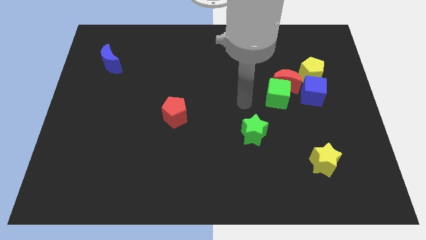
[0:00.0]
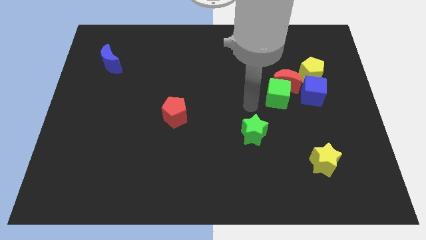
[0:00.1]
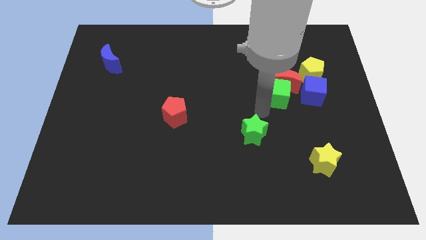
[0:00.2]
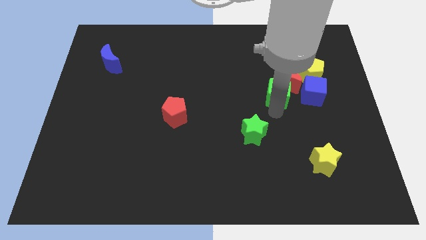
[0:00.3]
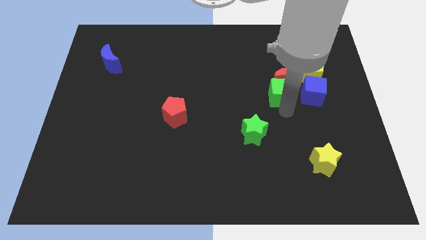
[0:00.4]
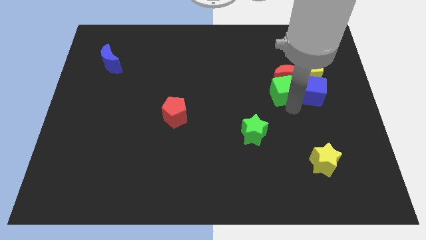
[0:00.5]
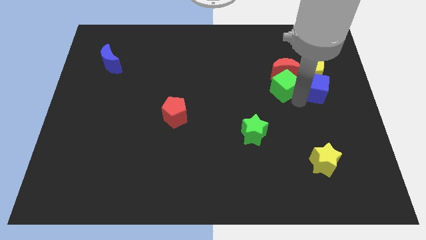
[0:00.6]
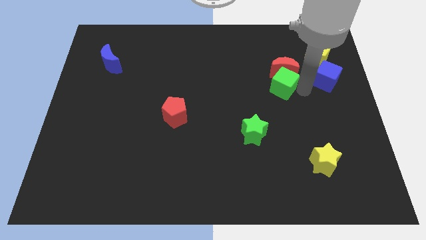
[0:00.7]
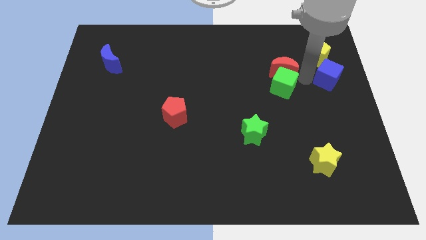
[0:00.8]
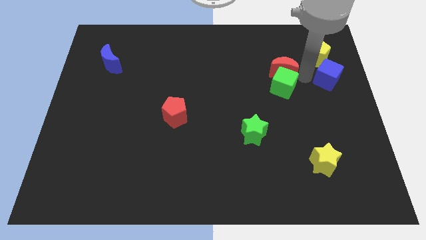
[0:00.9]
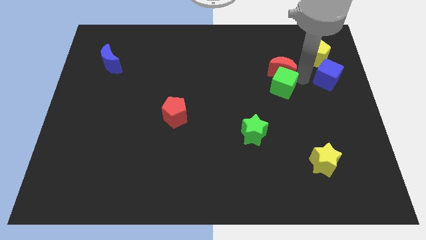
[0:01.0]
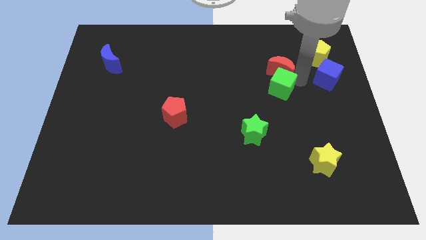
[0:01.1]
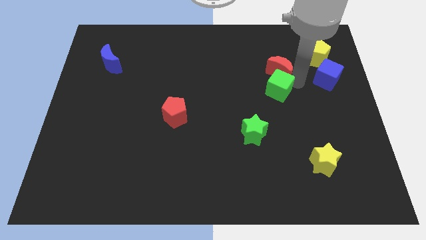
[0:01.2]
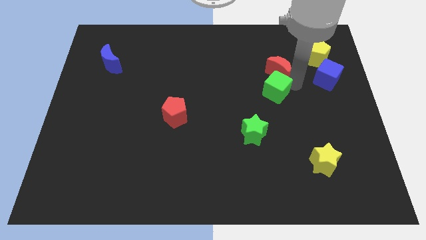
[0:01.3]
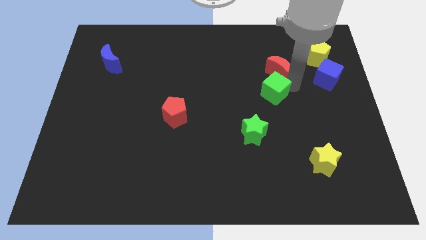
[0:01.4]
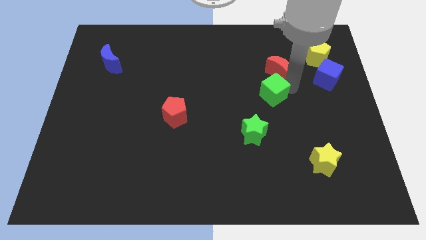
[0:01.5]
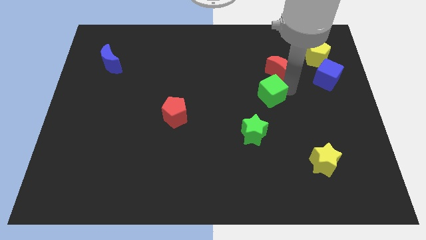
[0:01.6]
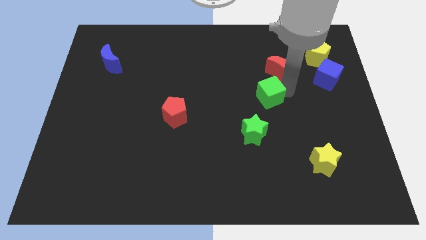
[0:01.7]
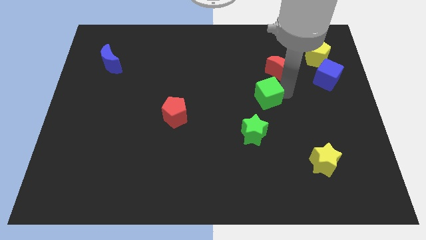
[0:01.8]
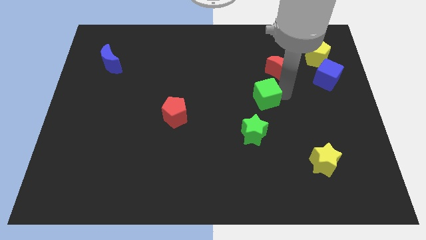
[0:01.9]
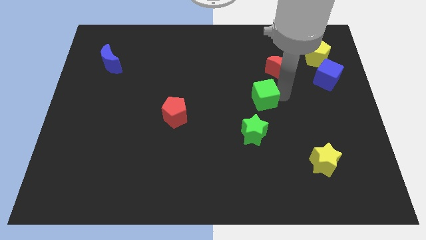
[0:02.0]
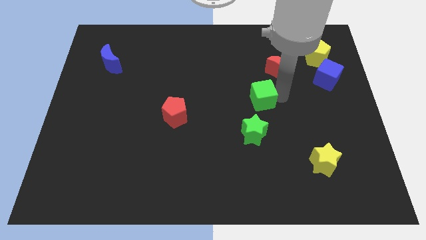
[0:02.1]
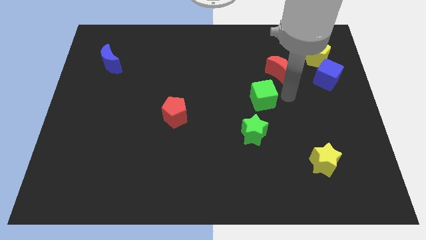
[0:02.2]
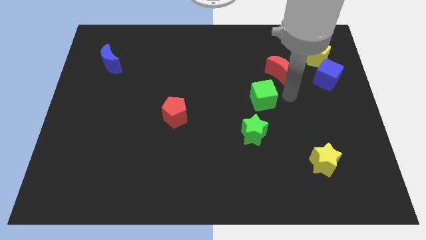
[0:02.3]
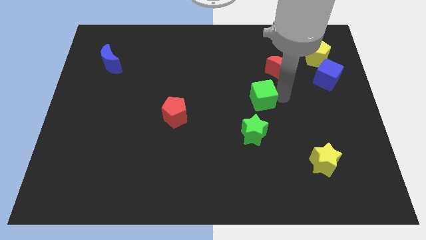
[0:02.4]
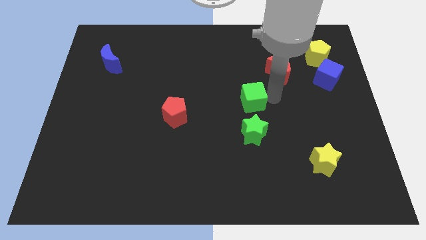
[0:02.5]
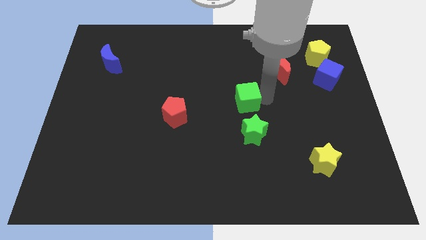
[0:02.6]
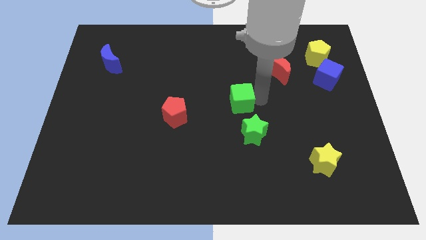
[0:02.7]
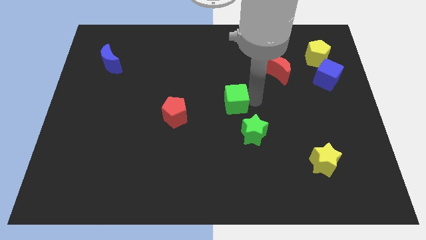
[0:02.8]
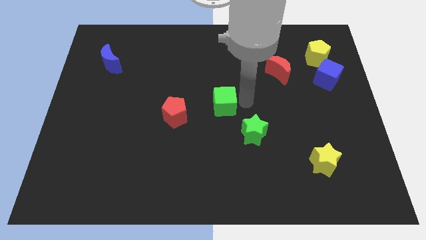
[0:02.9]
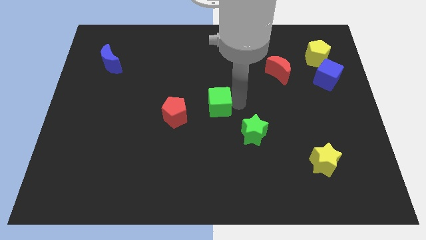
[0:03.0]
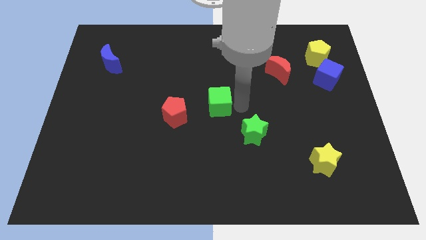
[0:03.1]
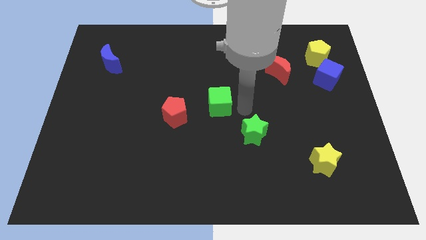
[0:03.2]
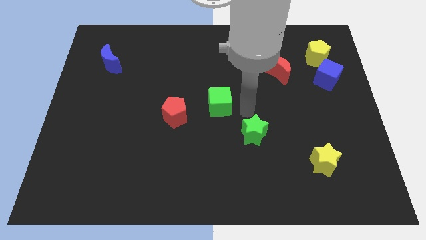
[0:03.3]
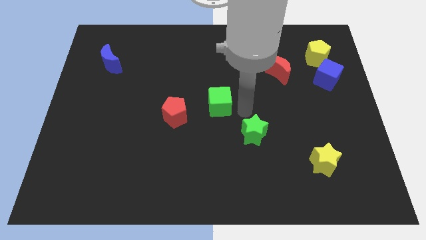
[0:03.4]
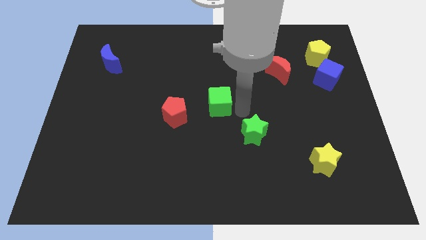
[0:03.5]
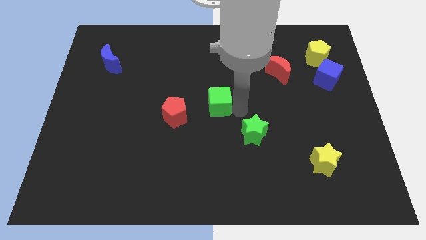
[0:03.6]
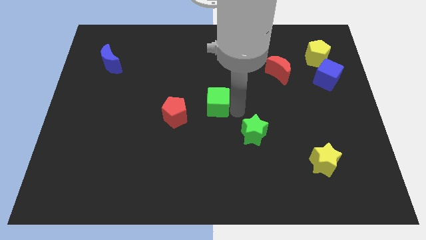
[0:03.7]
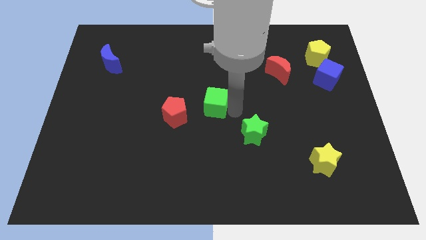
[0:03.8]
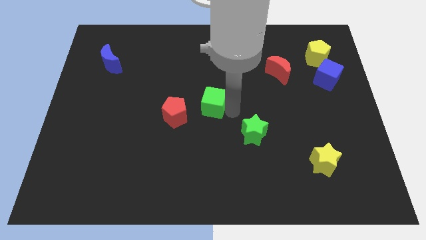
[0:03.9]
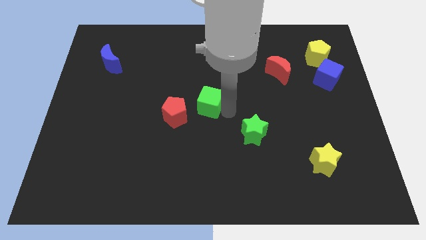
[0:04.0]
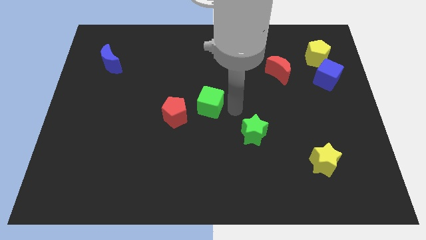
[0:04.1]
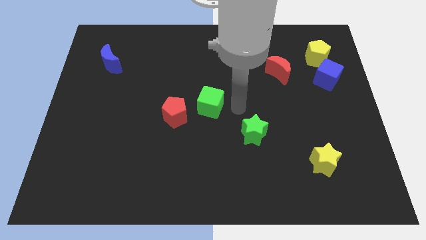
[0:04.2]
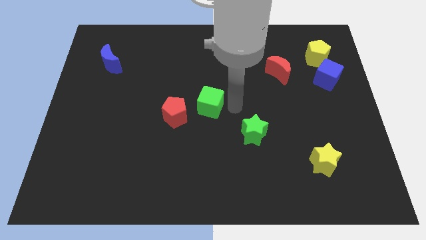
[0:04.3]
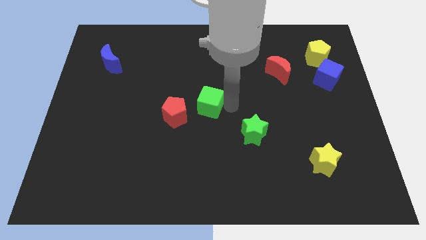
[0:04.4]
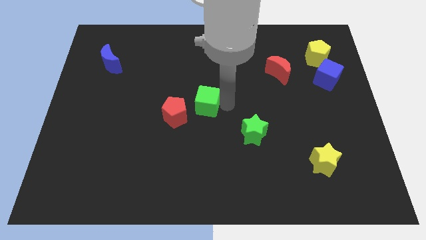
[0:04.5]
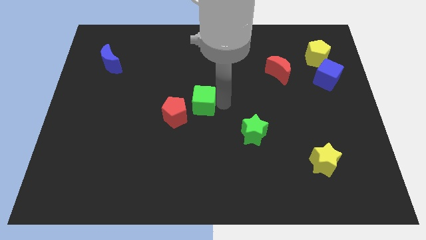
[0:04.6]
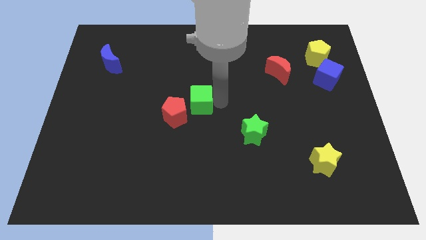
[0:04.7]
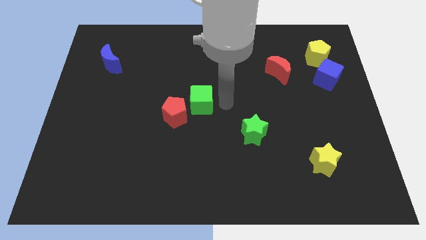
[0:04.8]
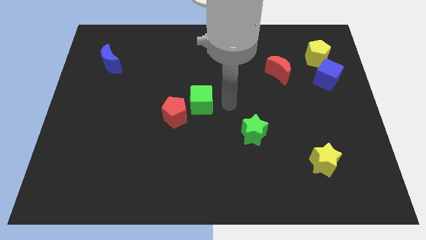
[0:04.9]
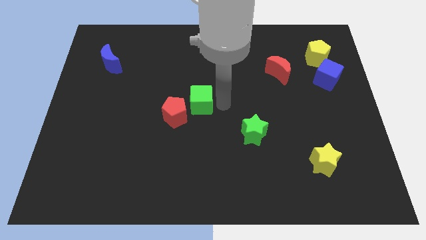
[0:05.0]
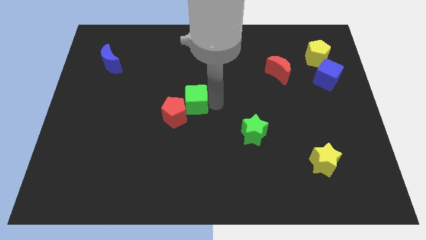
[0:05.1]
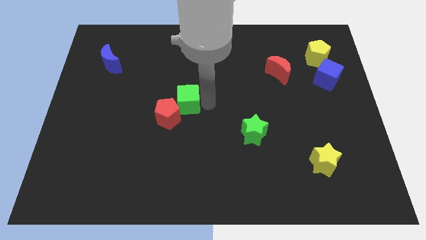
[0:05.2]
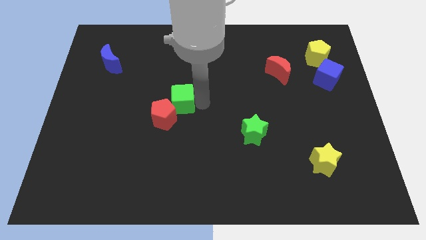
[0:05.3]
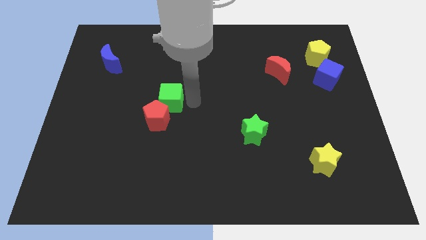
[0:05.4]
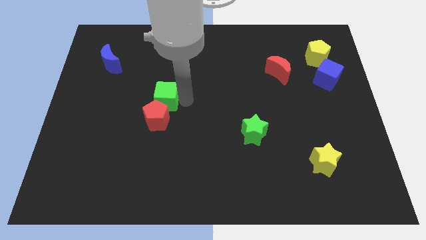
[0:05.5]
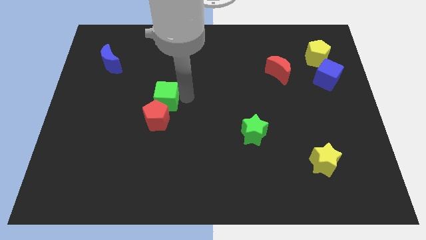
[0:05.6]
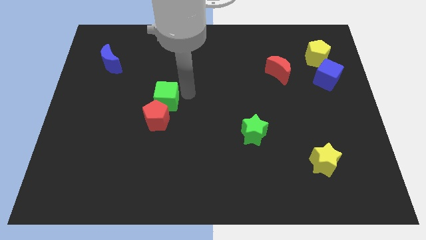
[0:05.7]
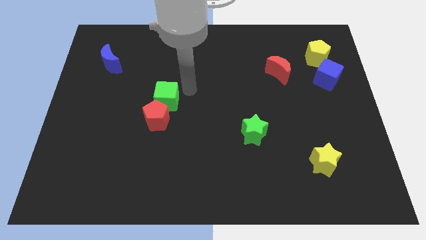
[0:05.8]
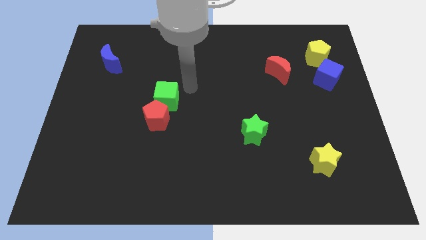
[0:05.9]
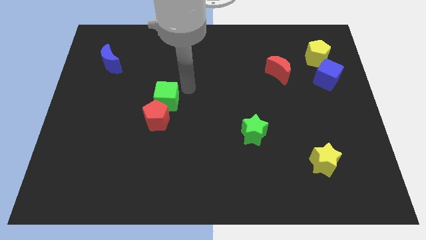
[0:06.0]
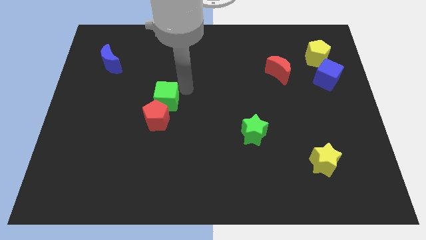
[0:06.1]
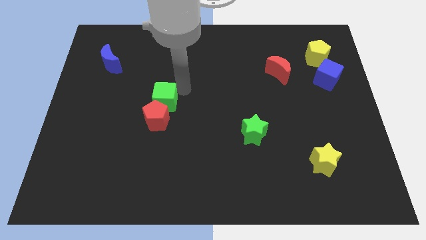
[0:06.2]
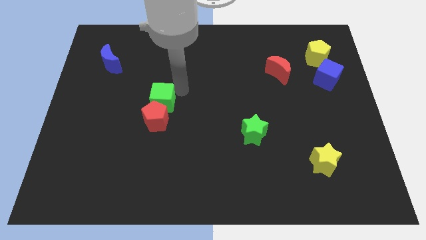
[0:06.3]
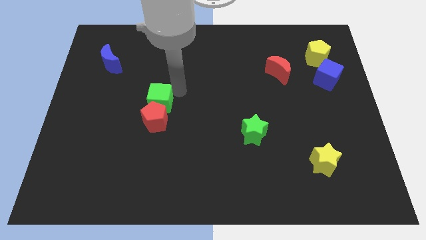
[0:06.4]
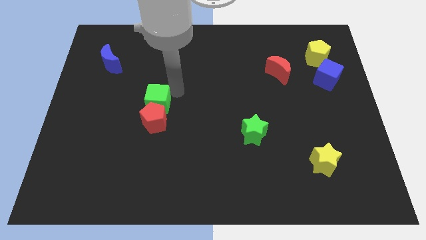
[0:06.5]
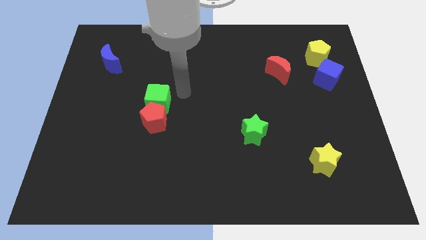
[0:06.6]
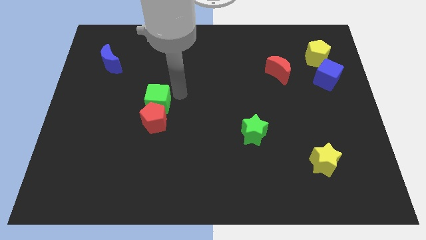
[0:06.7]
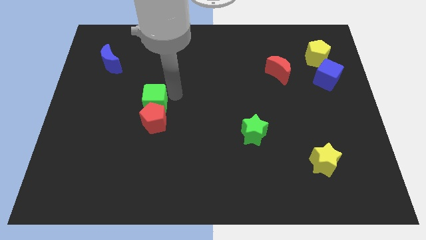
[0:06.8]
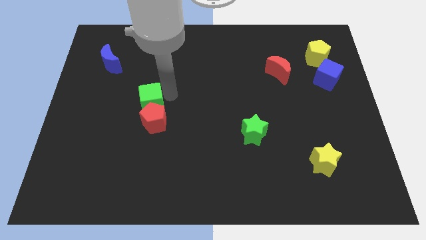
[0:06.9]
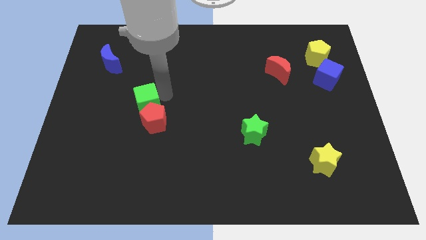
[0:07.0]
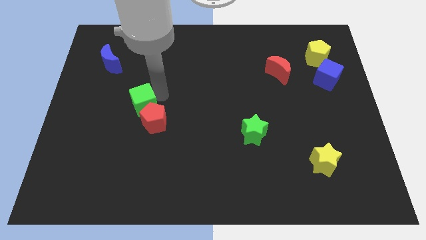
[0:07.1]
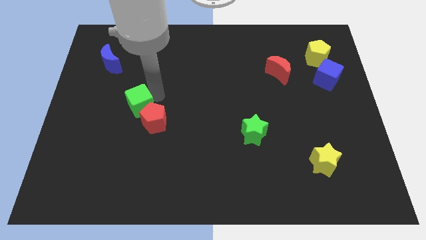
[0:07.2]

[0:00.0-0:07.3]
slide the green cube left of the red pentagon
